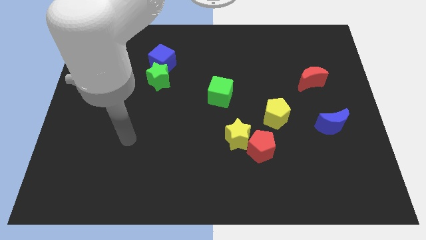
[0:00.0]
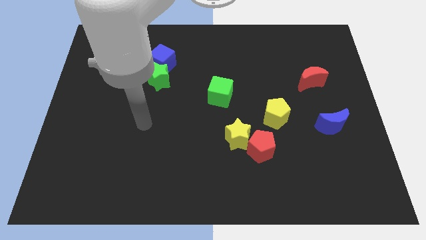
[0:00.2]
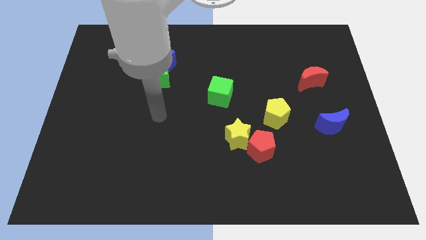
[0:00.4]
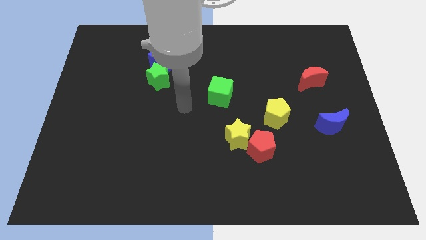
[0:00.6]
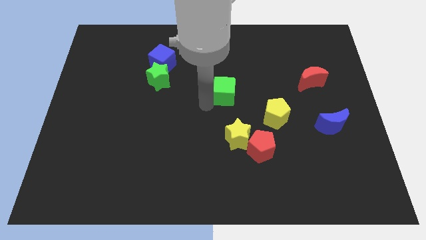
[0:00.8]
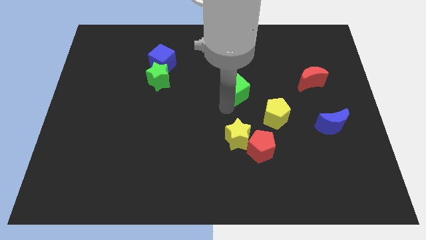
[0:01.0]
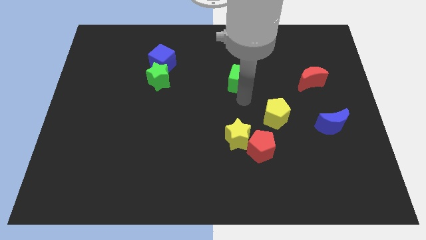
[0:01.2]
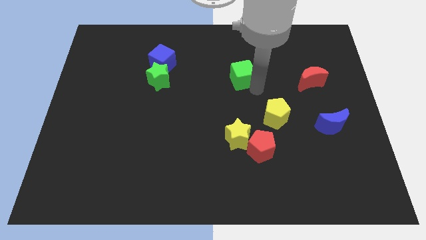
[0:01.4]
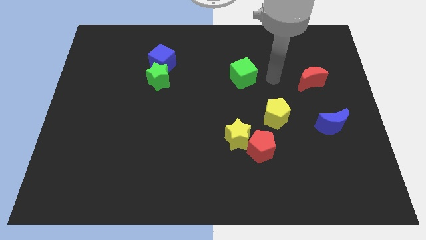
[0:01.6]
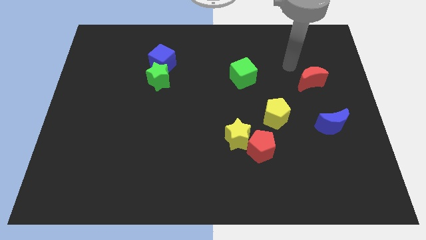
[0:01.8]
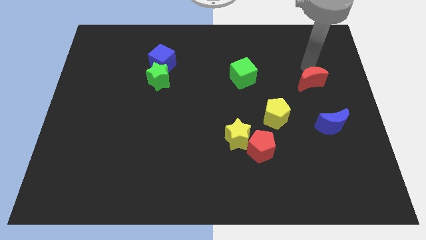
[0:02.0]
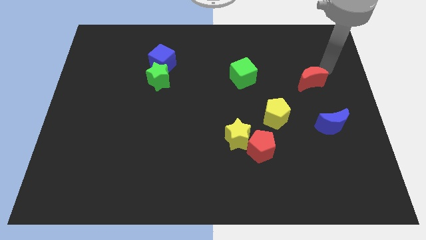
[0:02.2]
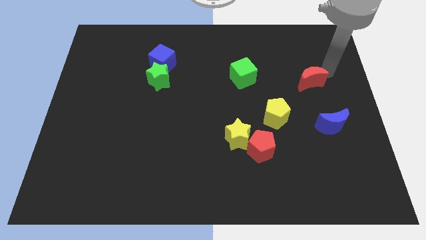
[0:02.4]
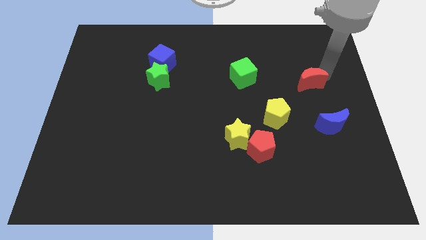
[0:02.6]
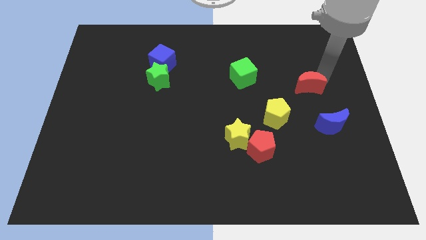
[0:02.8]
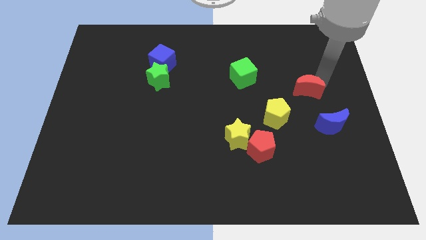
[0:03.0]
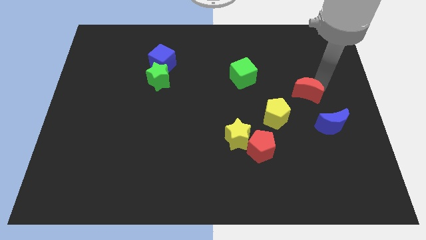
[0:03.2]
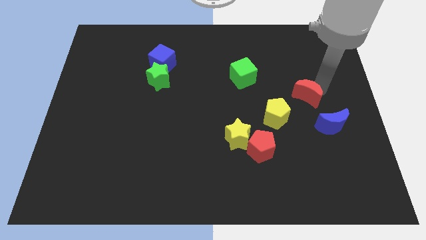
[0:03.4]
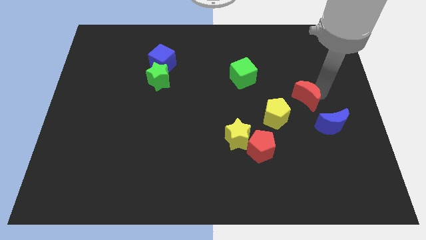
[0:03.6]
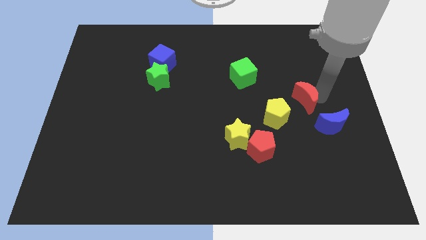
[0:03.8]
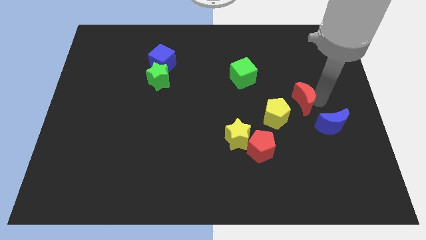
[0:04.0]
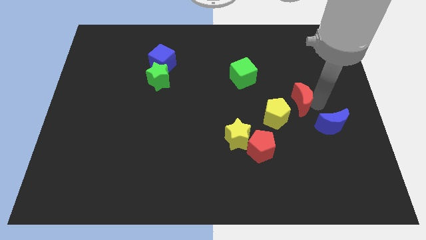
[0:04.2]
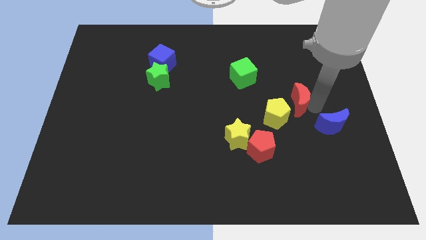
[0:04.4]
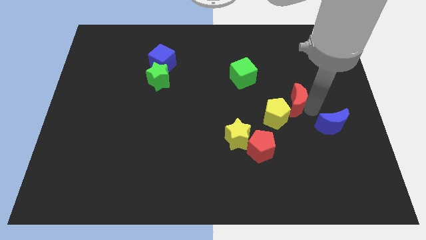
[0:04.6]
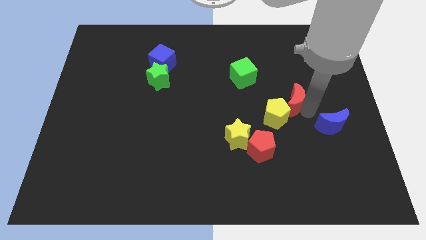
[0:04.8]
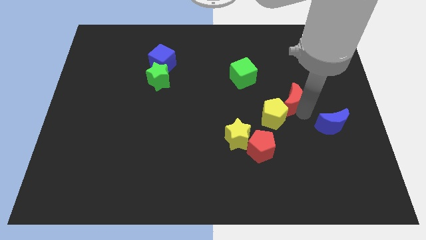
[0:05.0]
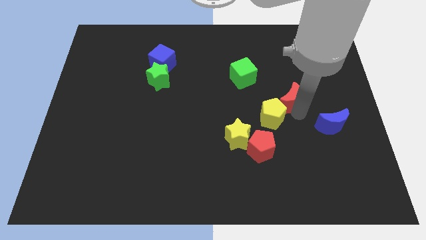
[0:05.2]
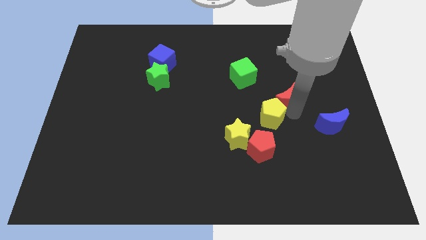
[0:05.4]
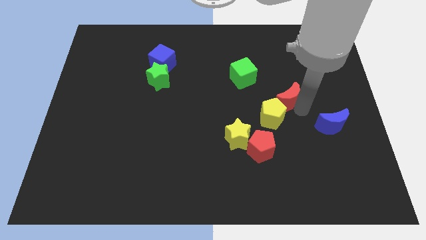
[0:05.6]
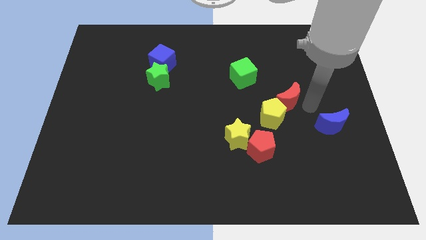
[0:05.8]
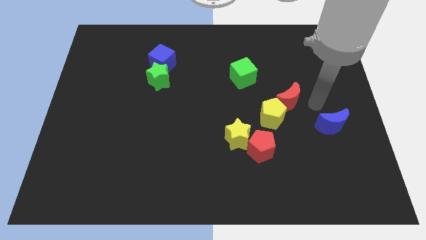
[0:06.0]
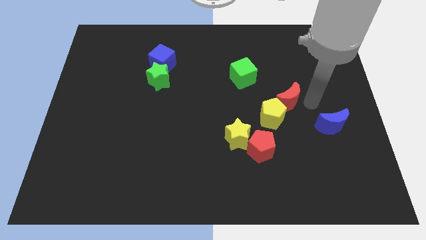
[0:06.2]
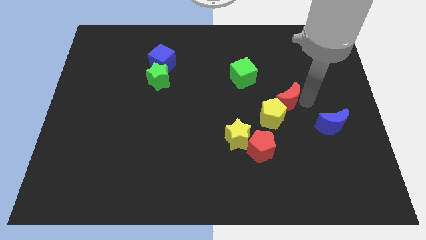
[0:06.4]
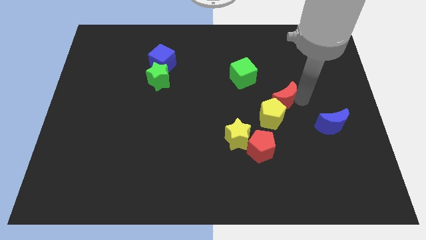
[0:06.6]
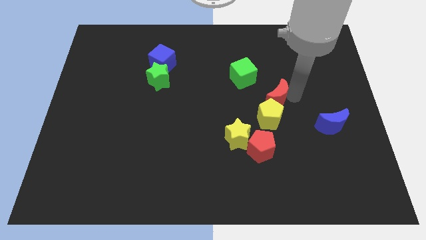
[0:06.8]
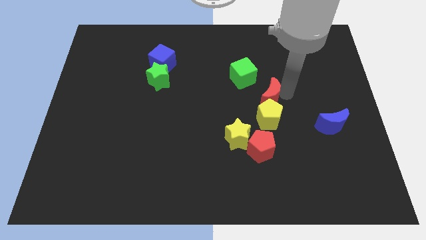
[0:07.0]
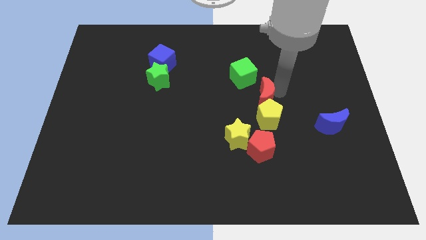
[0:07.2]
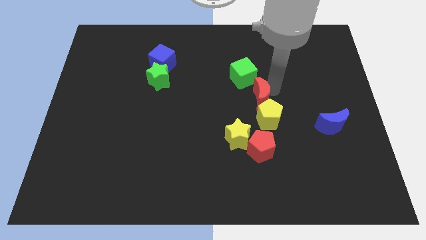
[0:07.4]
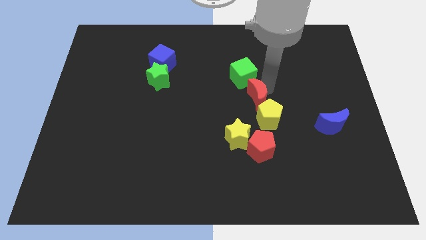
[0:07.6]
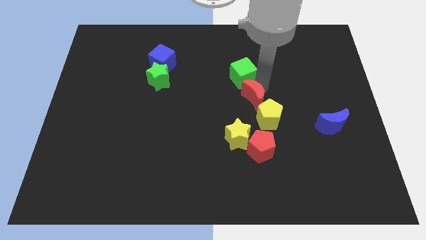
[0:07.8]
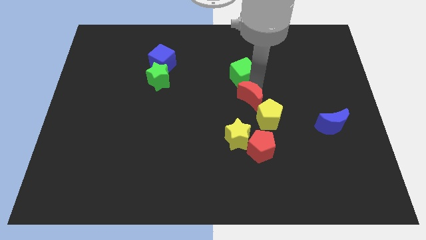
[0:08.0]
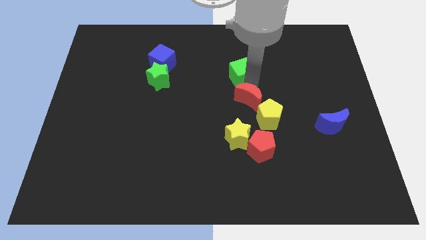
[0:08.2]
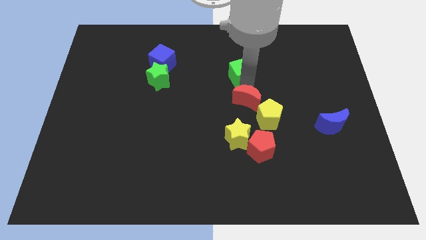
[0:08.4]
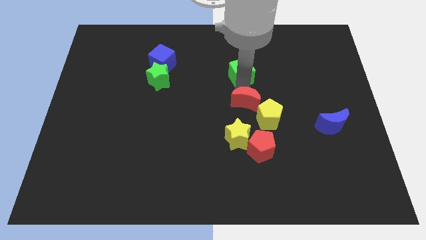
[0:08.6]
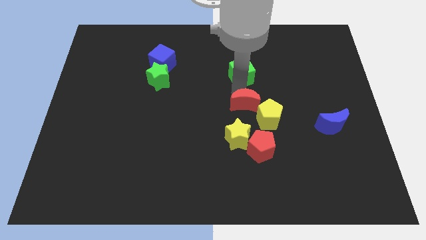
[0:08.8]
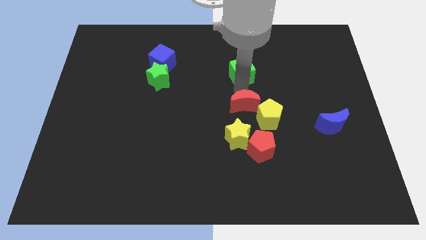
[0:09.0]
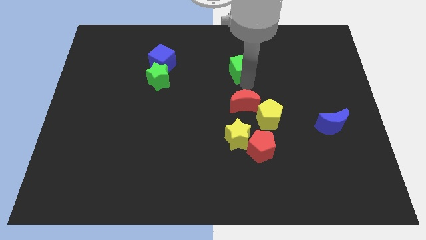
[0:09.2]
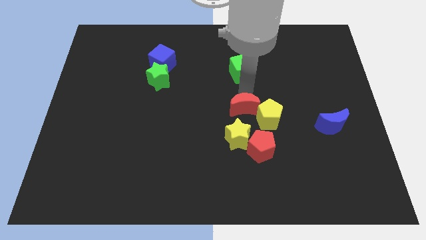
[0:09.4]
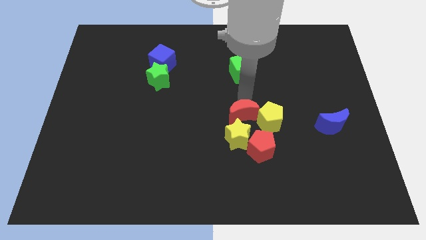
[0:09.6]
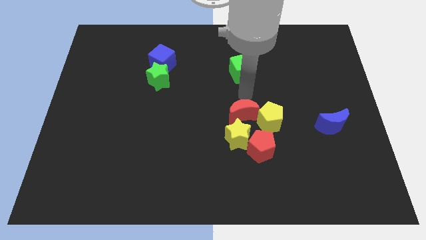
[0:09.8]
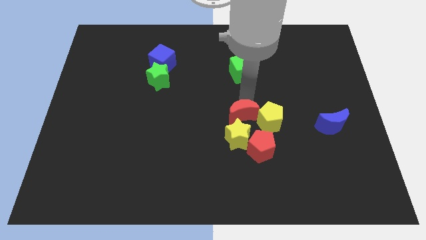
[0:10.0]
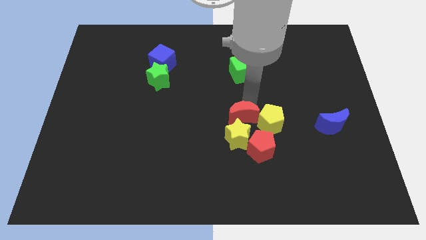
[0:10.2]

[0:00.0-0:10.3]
move the red moon towards the yellow star

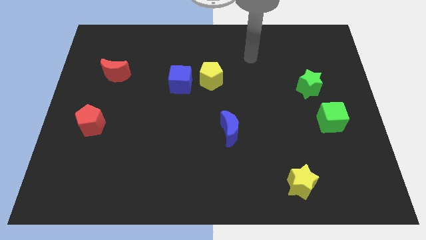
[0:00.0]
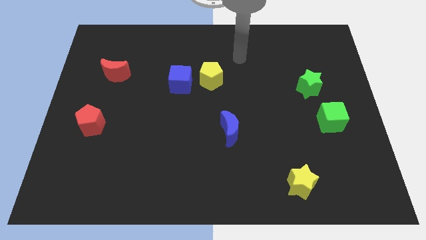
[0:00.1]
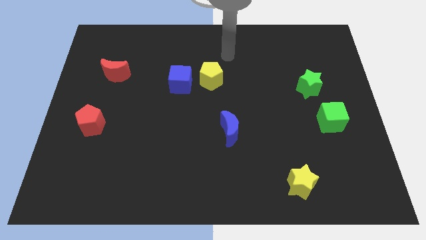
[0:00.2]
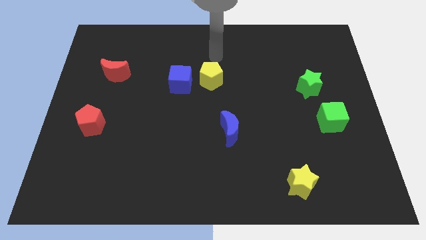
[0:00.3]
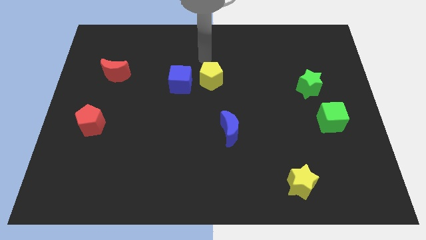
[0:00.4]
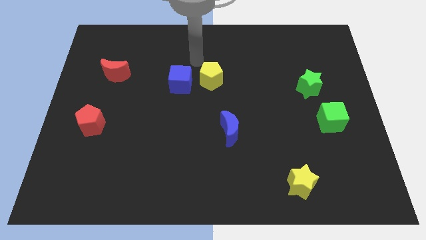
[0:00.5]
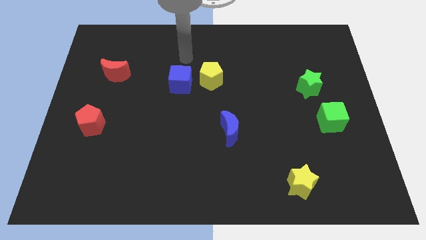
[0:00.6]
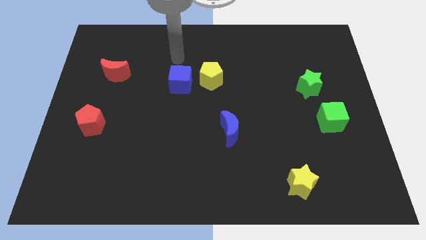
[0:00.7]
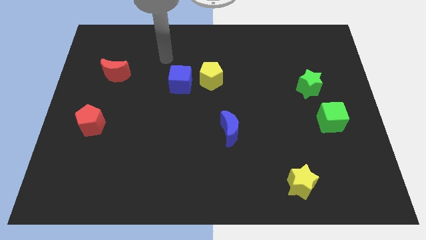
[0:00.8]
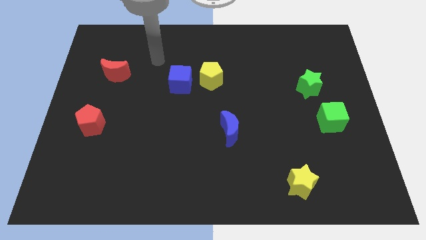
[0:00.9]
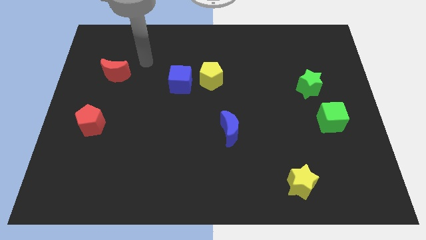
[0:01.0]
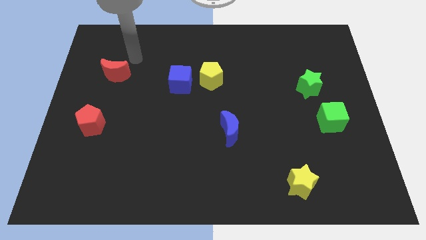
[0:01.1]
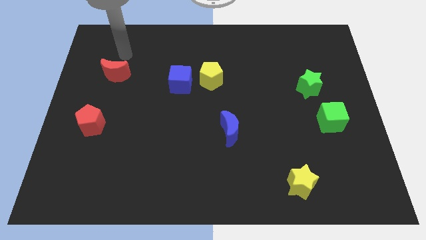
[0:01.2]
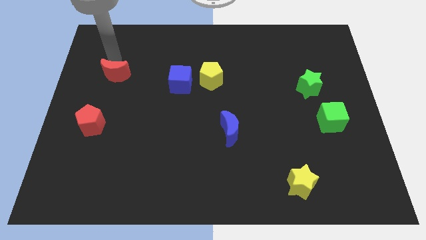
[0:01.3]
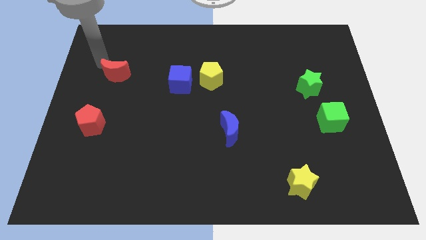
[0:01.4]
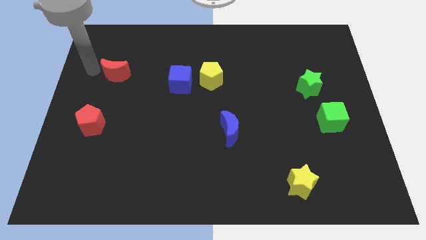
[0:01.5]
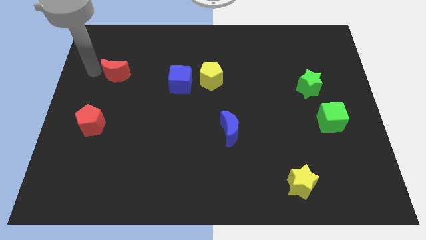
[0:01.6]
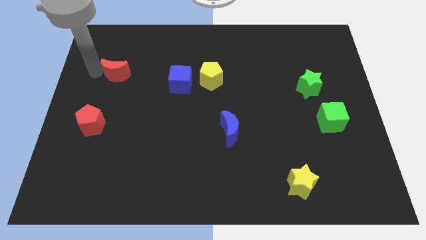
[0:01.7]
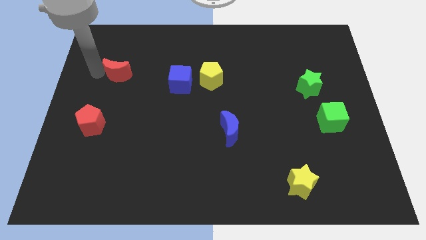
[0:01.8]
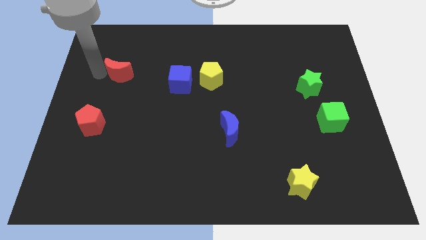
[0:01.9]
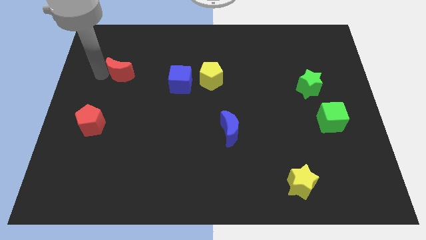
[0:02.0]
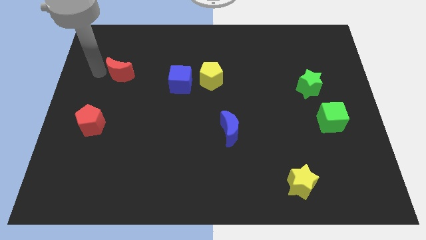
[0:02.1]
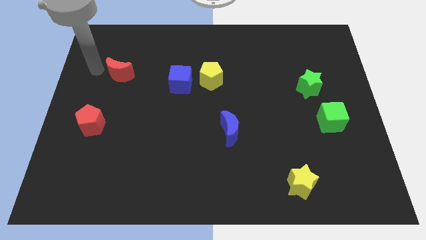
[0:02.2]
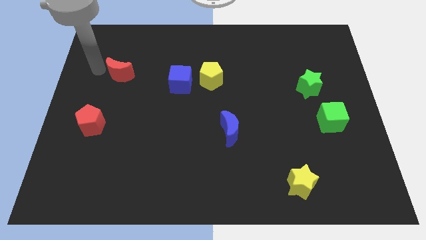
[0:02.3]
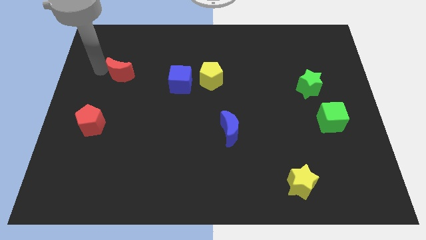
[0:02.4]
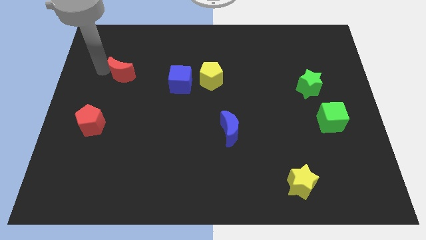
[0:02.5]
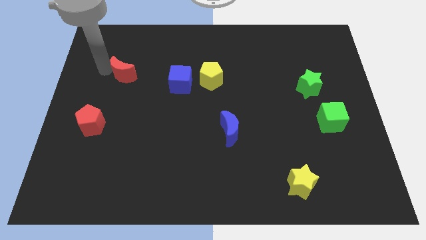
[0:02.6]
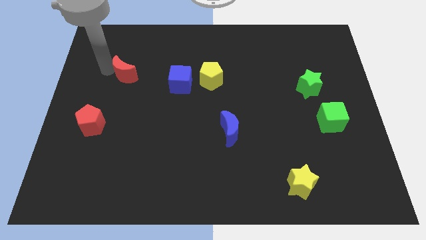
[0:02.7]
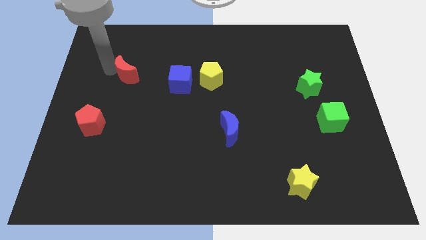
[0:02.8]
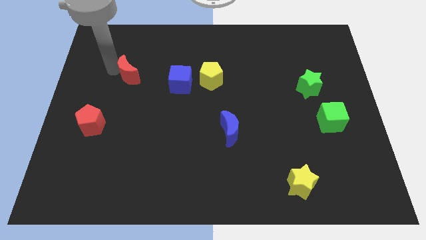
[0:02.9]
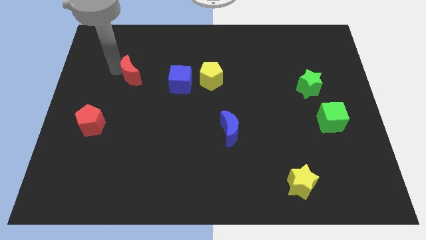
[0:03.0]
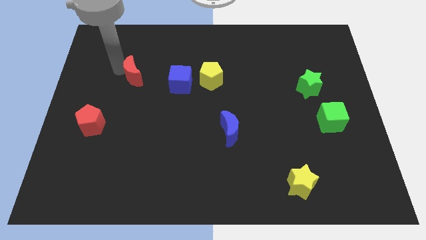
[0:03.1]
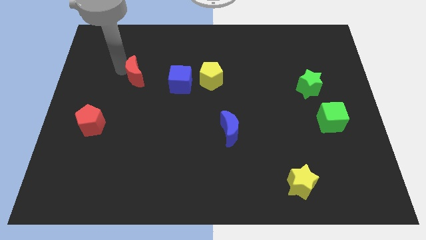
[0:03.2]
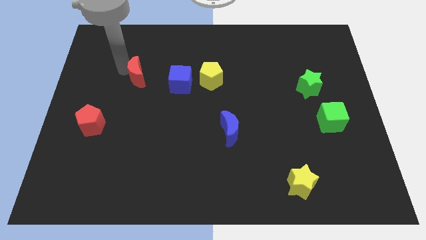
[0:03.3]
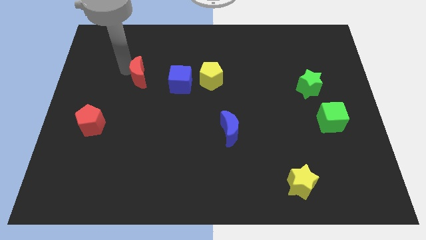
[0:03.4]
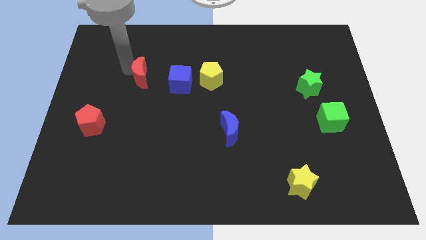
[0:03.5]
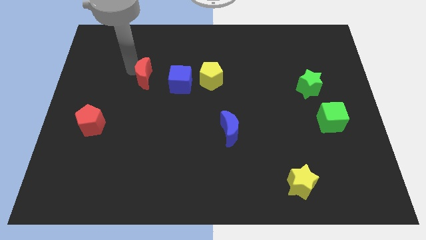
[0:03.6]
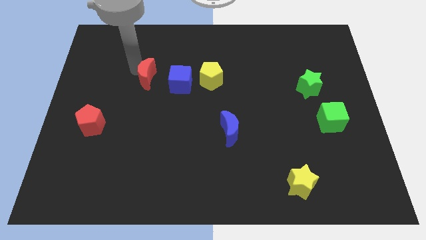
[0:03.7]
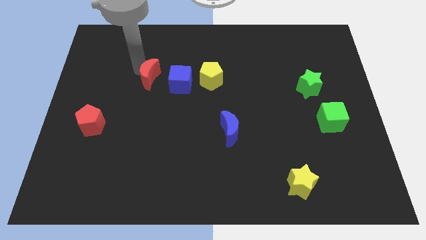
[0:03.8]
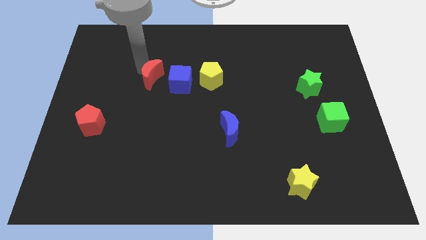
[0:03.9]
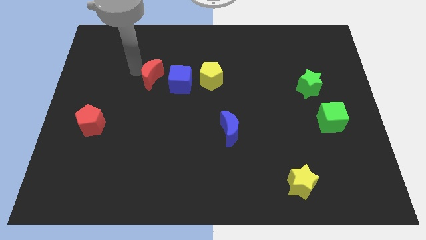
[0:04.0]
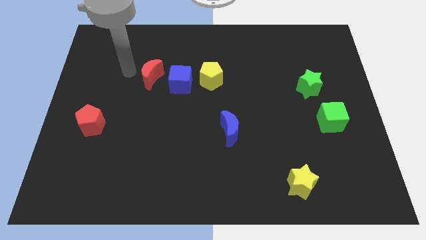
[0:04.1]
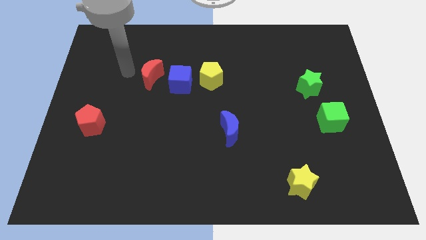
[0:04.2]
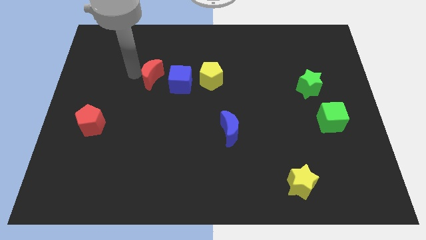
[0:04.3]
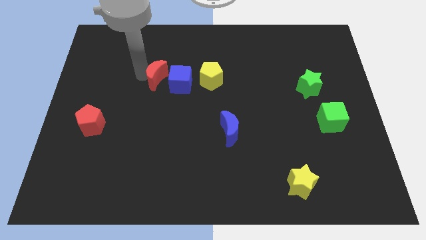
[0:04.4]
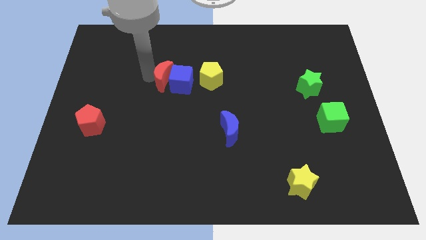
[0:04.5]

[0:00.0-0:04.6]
slide the red moon towards the blue cube
